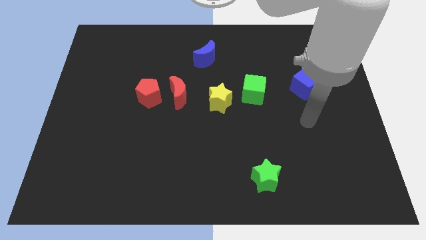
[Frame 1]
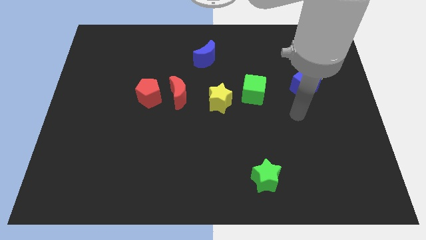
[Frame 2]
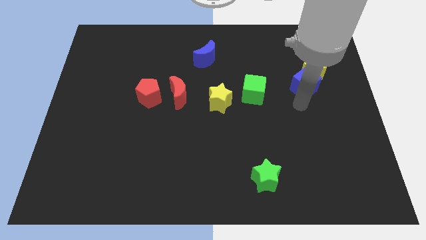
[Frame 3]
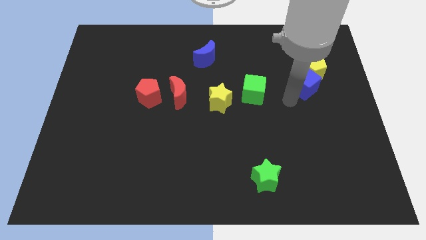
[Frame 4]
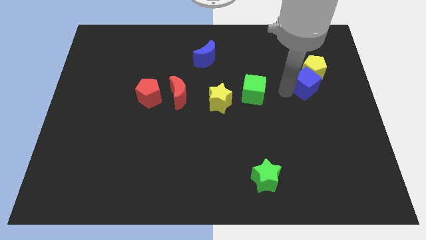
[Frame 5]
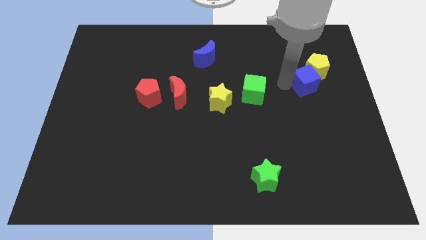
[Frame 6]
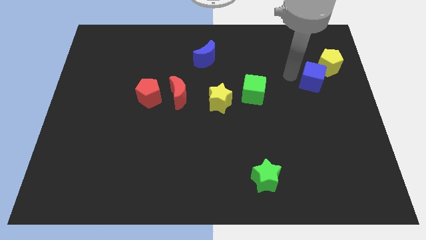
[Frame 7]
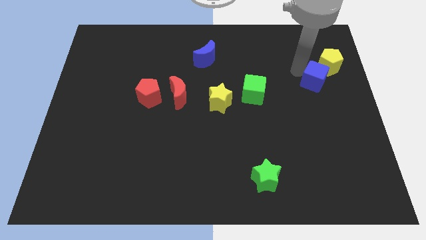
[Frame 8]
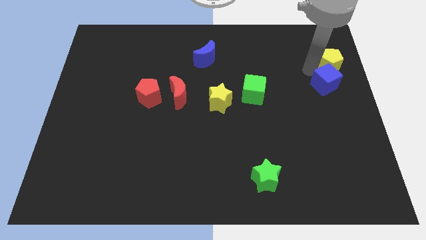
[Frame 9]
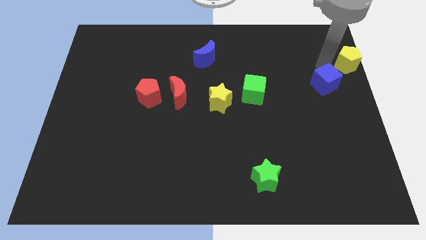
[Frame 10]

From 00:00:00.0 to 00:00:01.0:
separate the blue cube from the yellow pentagon

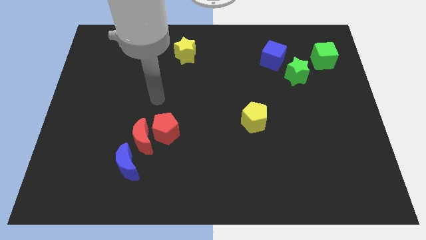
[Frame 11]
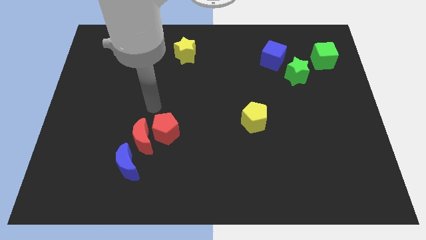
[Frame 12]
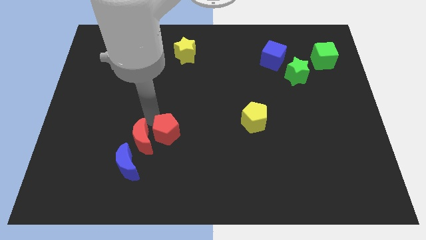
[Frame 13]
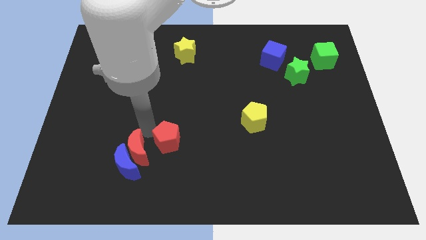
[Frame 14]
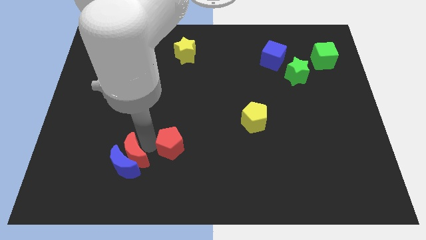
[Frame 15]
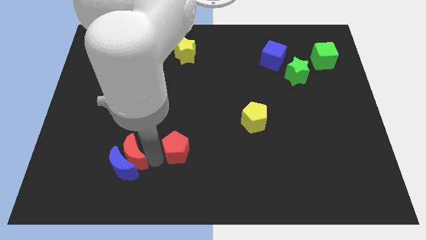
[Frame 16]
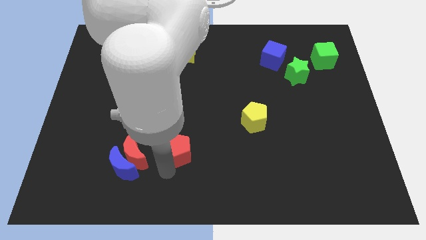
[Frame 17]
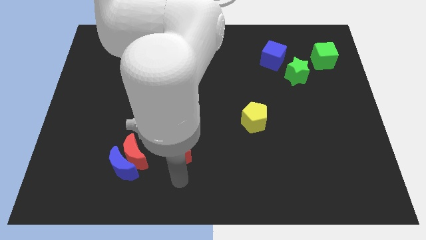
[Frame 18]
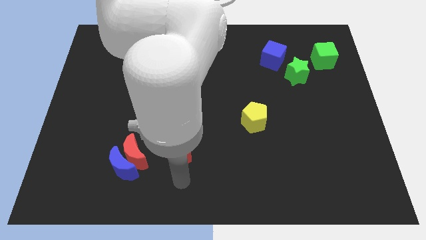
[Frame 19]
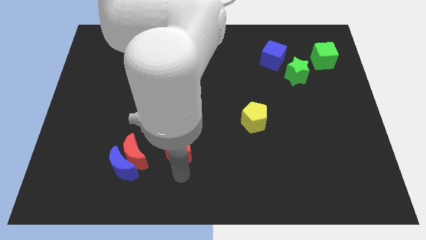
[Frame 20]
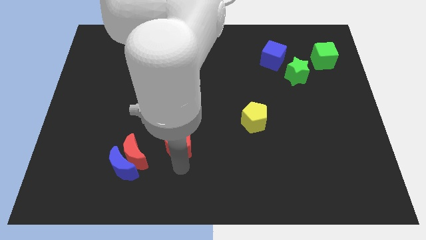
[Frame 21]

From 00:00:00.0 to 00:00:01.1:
pull the red pentagon apart from the red moon

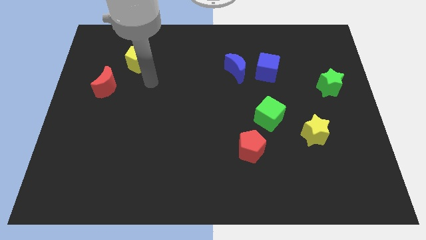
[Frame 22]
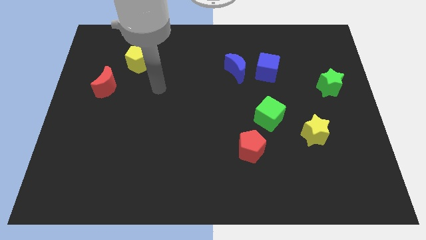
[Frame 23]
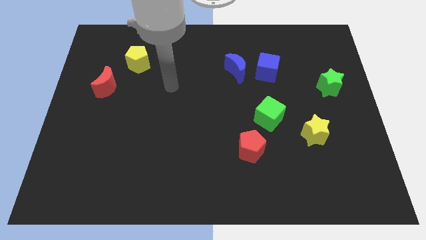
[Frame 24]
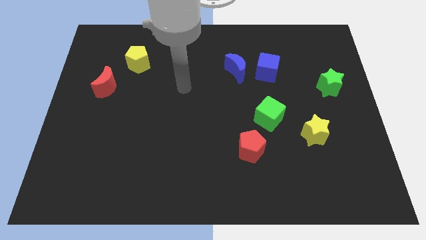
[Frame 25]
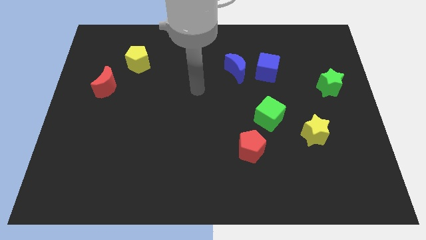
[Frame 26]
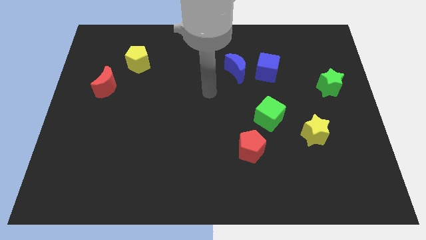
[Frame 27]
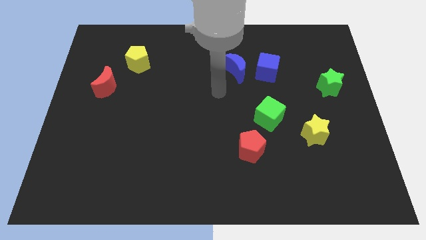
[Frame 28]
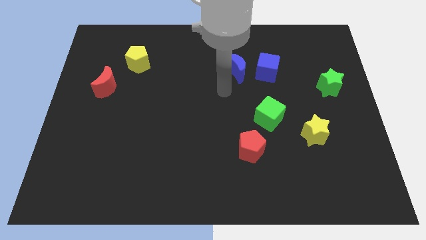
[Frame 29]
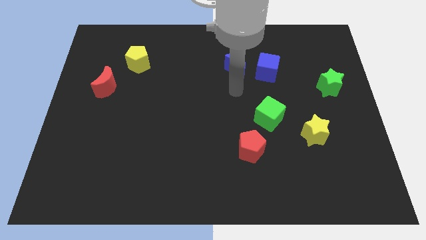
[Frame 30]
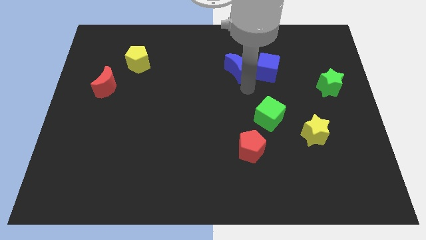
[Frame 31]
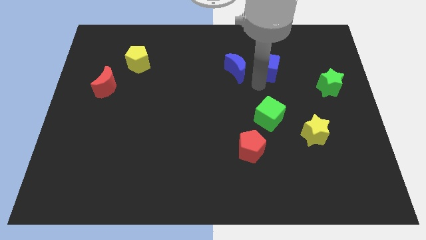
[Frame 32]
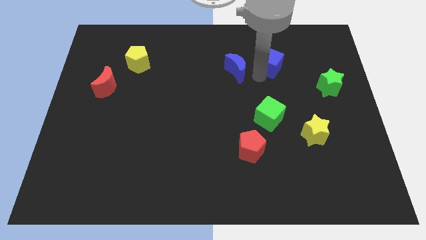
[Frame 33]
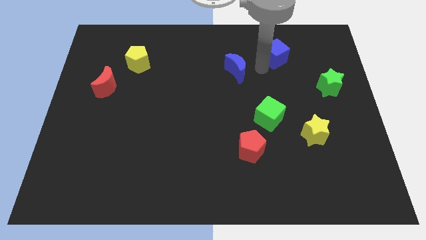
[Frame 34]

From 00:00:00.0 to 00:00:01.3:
move the blue moon away from the blue cube

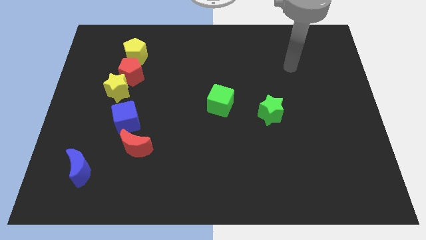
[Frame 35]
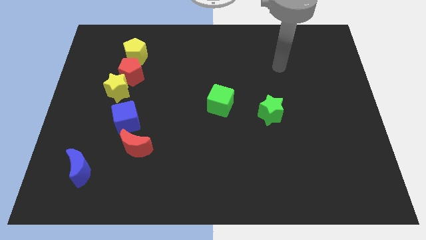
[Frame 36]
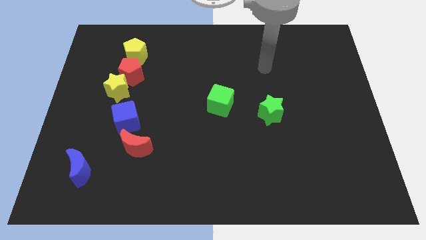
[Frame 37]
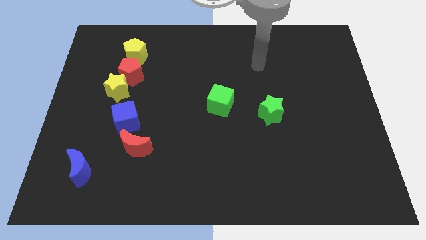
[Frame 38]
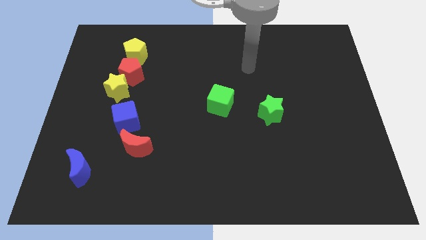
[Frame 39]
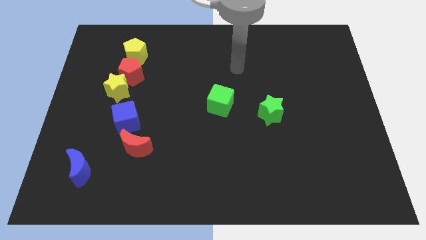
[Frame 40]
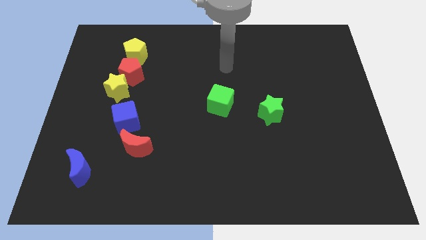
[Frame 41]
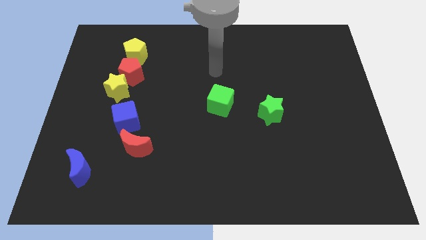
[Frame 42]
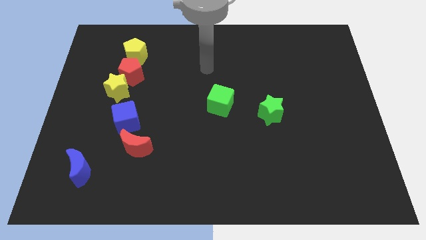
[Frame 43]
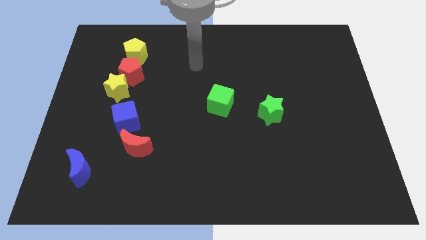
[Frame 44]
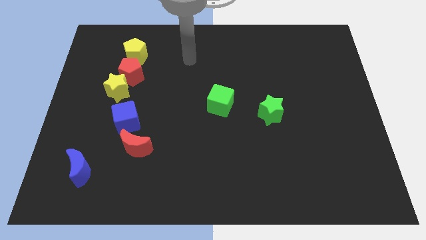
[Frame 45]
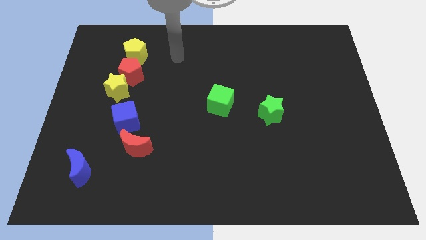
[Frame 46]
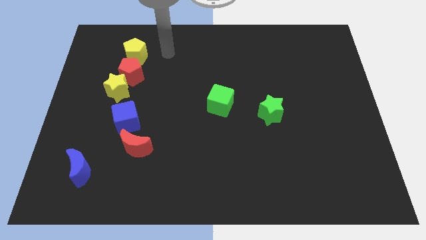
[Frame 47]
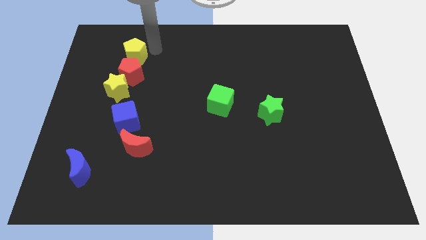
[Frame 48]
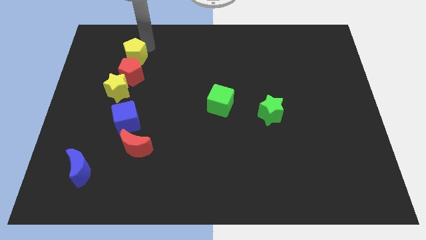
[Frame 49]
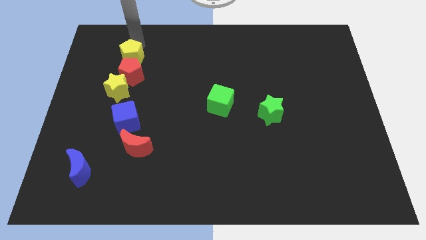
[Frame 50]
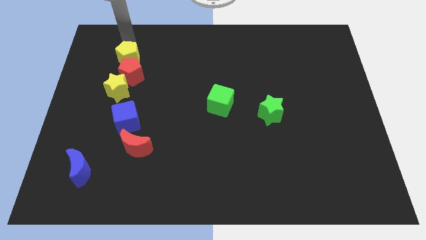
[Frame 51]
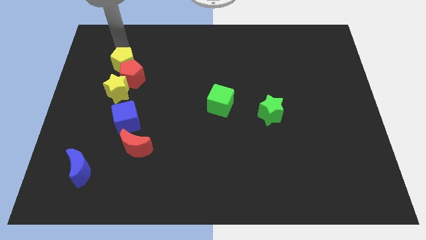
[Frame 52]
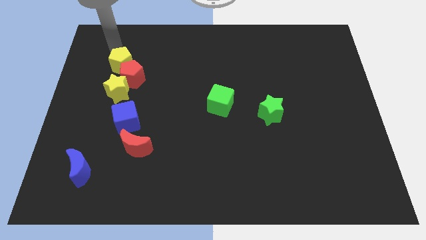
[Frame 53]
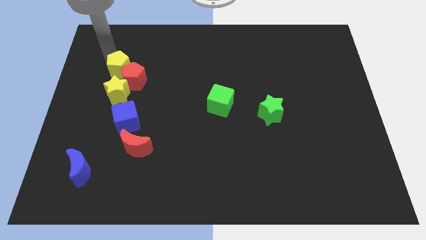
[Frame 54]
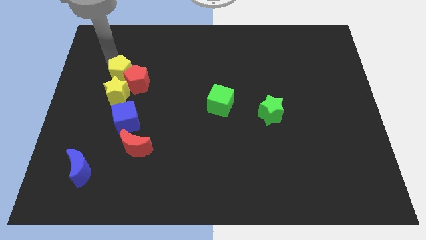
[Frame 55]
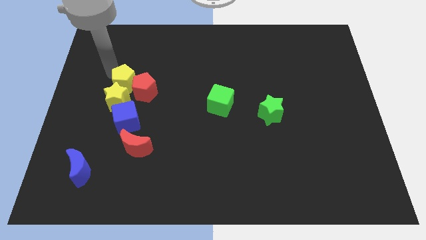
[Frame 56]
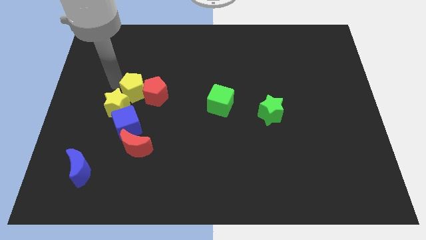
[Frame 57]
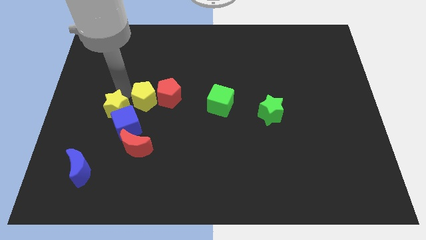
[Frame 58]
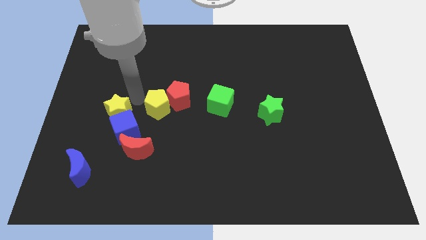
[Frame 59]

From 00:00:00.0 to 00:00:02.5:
pull the red pentagon apart from the yellow star and yellow pentagon

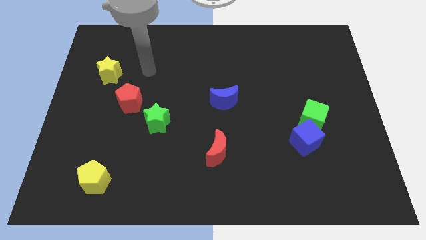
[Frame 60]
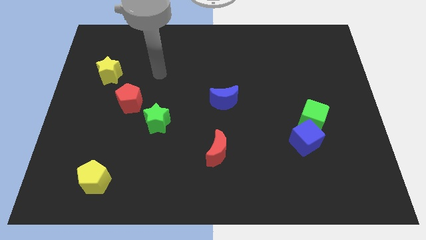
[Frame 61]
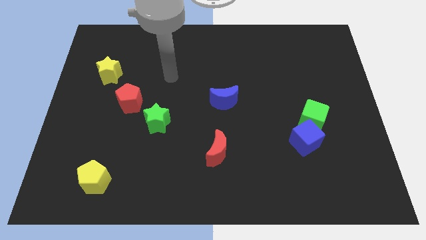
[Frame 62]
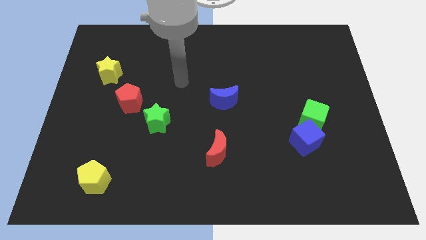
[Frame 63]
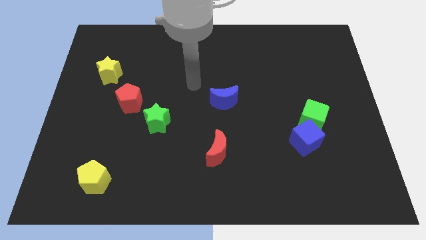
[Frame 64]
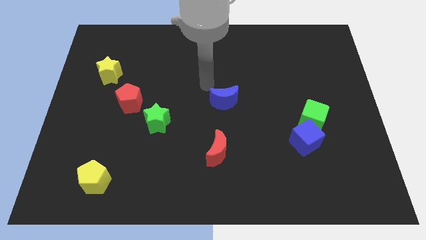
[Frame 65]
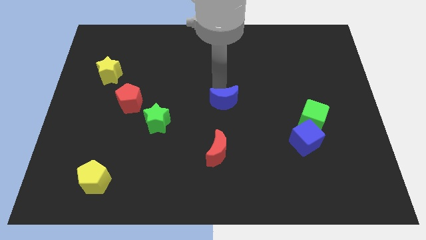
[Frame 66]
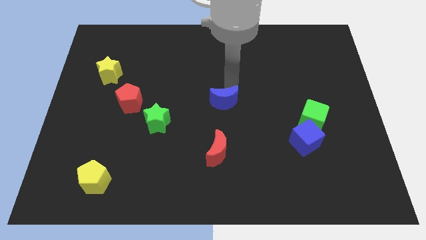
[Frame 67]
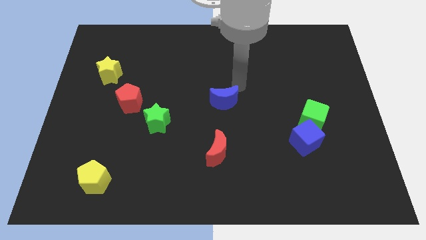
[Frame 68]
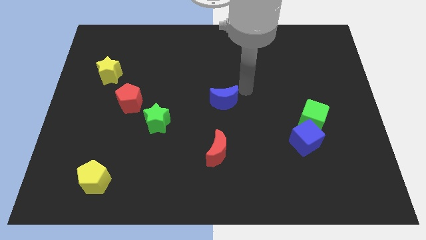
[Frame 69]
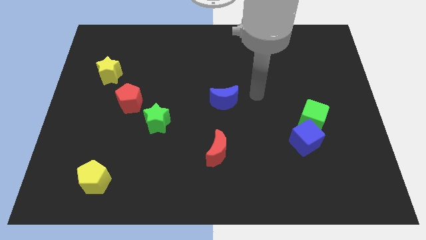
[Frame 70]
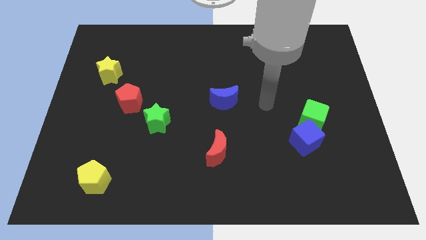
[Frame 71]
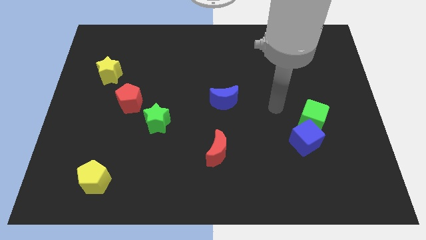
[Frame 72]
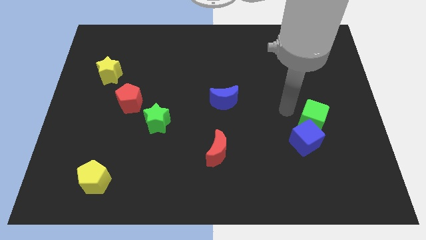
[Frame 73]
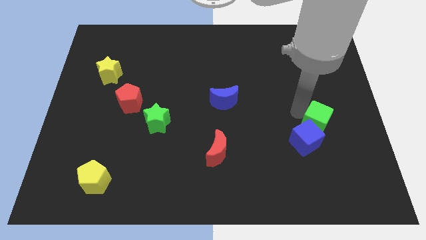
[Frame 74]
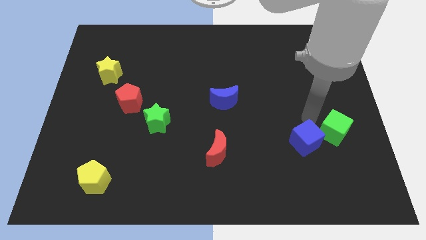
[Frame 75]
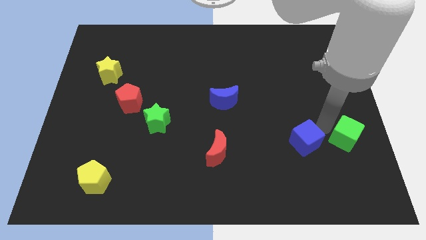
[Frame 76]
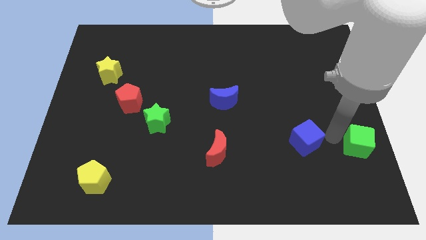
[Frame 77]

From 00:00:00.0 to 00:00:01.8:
move the blue cube away from the green cube

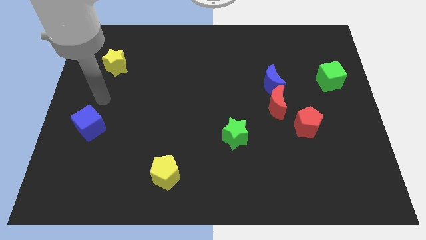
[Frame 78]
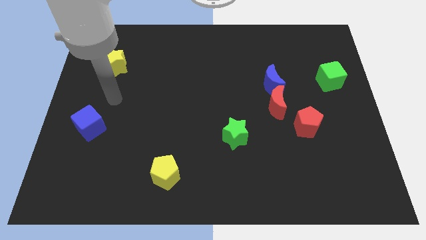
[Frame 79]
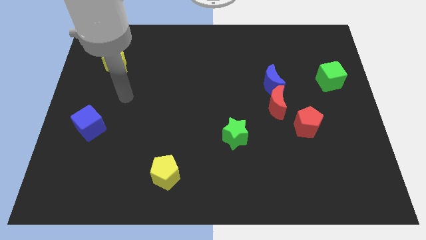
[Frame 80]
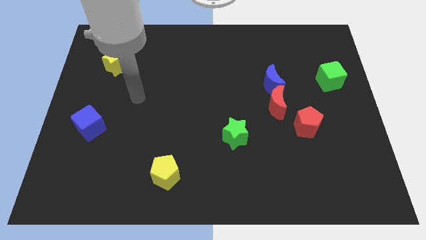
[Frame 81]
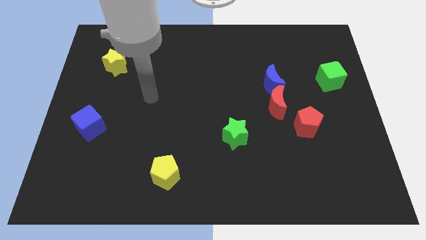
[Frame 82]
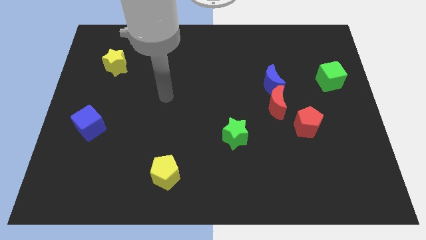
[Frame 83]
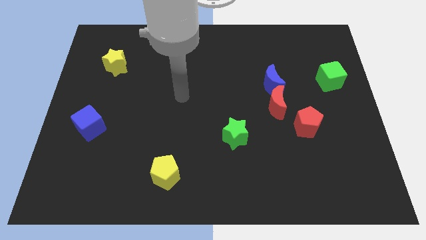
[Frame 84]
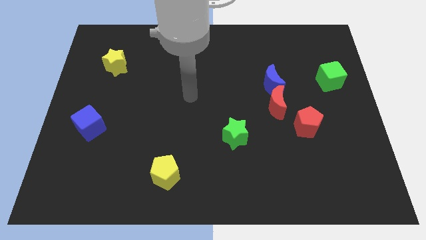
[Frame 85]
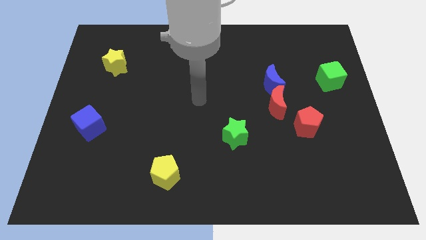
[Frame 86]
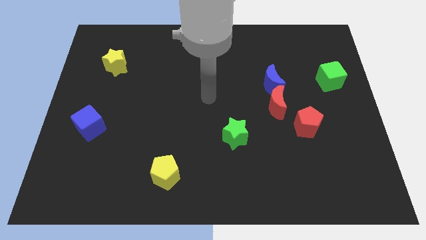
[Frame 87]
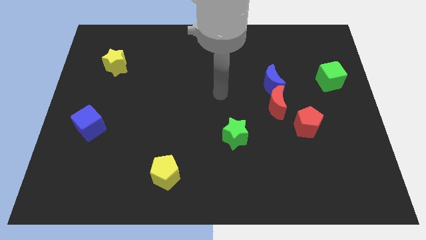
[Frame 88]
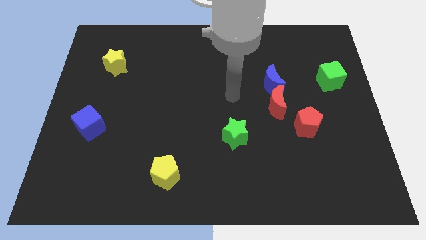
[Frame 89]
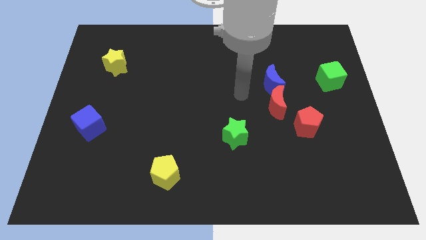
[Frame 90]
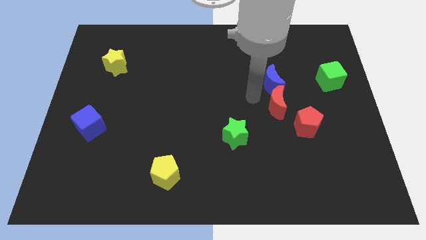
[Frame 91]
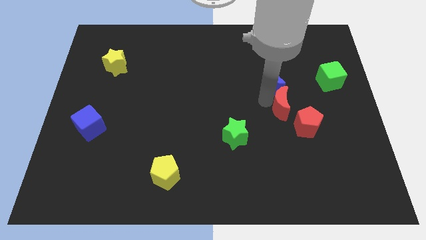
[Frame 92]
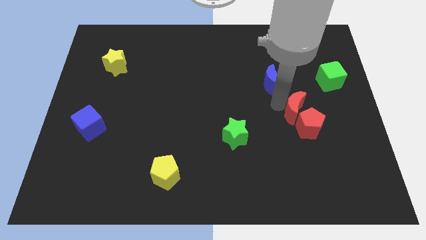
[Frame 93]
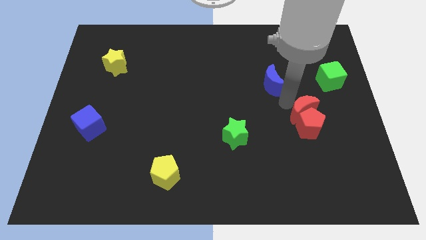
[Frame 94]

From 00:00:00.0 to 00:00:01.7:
pull the blue moon apart from the red moon
